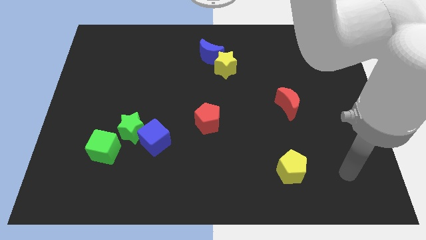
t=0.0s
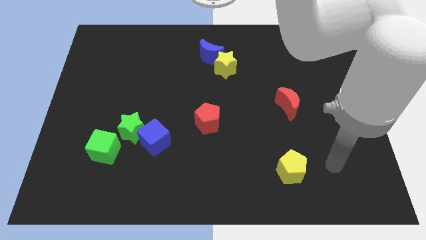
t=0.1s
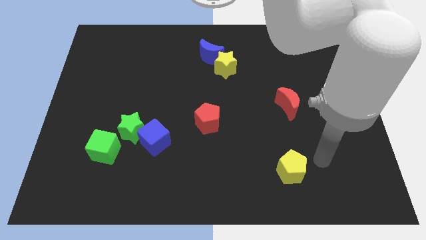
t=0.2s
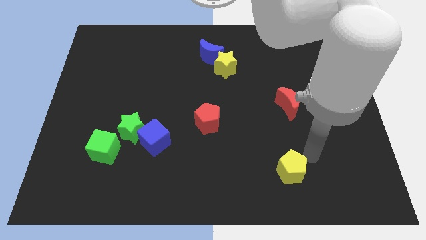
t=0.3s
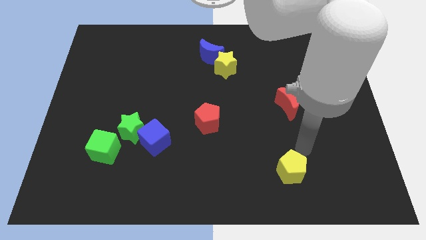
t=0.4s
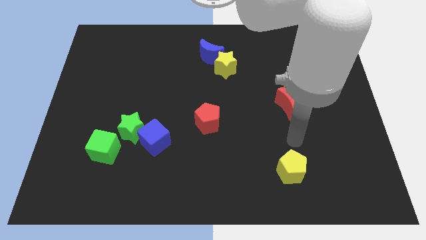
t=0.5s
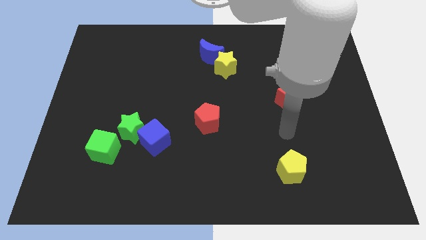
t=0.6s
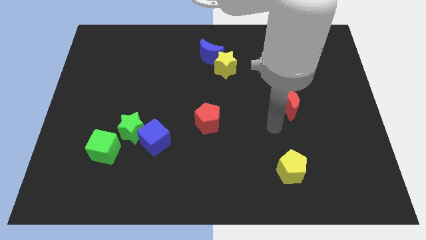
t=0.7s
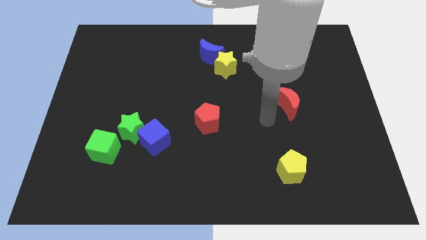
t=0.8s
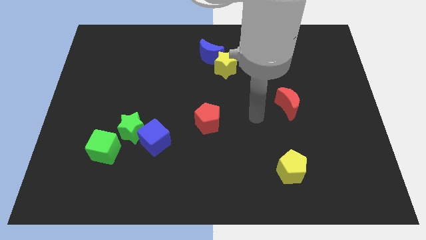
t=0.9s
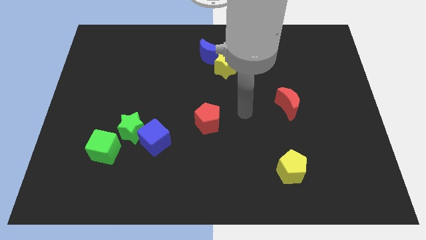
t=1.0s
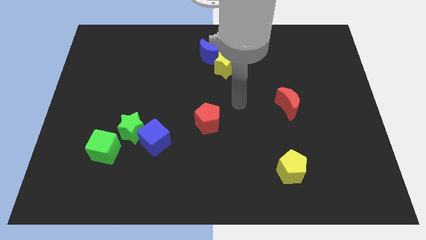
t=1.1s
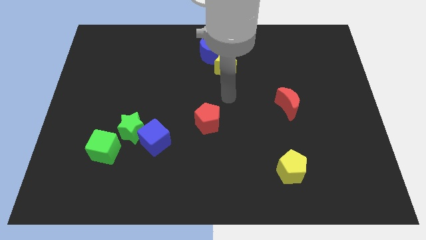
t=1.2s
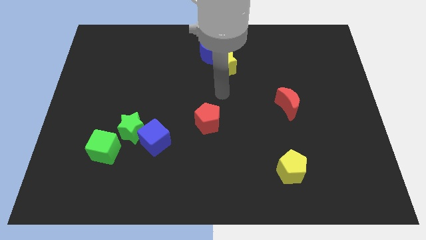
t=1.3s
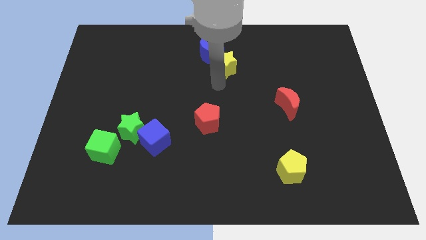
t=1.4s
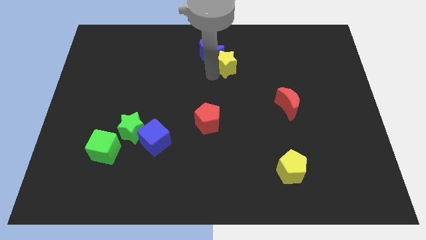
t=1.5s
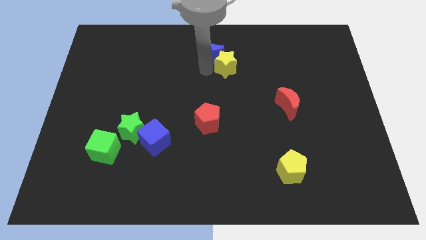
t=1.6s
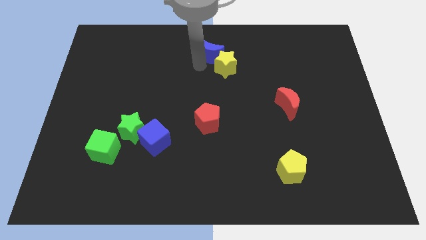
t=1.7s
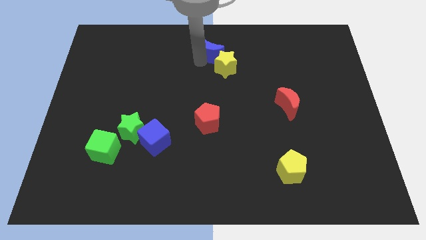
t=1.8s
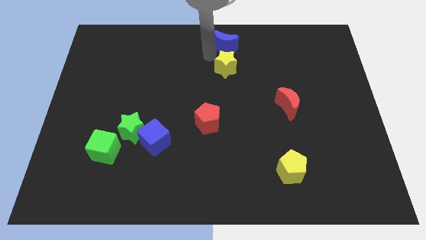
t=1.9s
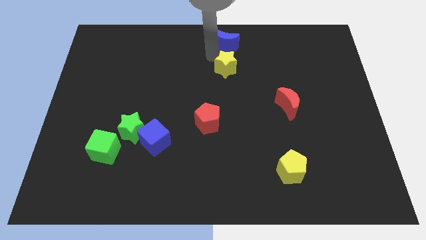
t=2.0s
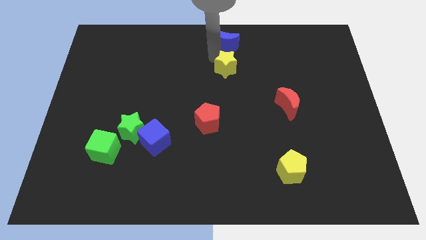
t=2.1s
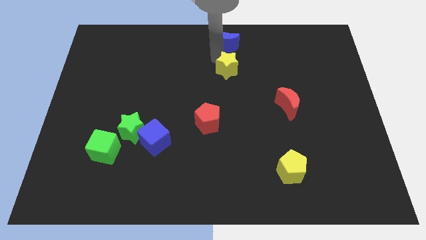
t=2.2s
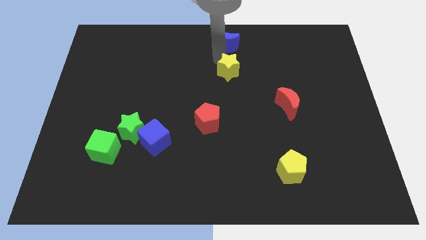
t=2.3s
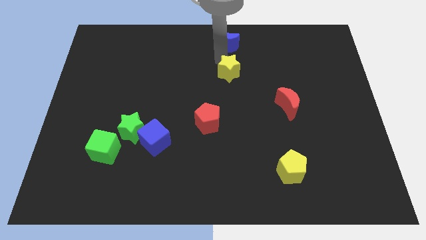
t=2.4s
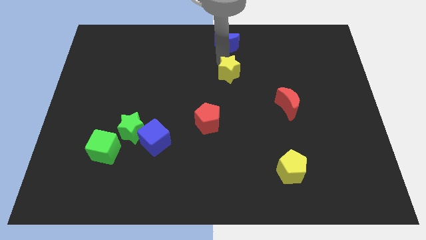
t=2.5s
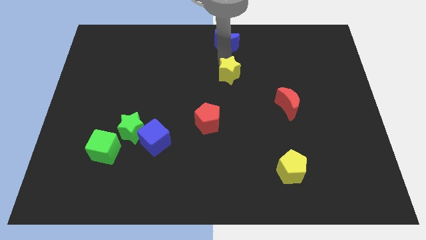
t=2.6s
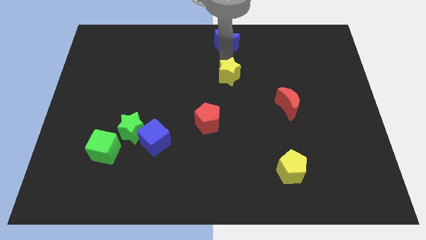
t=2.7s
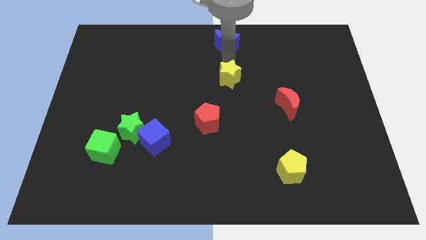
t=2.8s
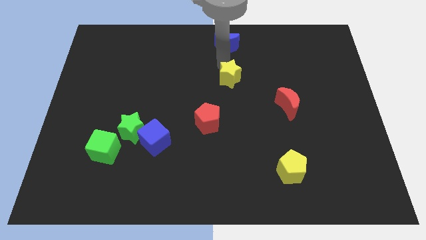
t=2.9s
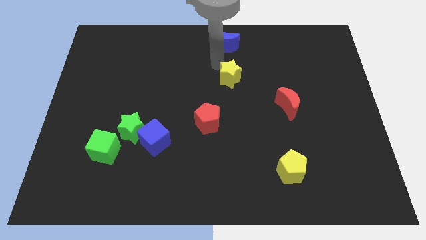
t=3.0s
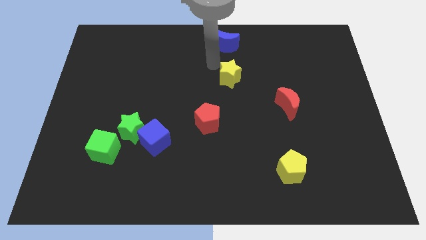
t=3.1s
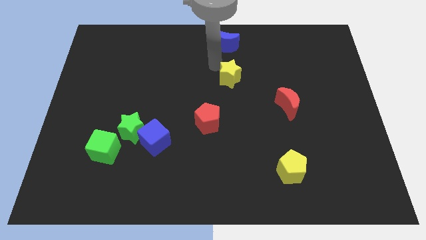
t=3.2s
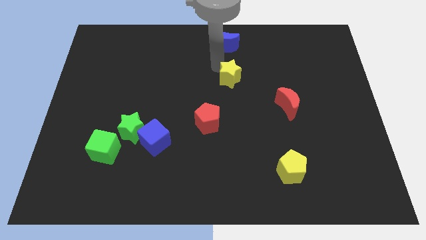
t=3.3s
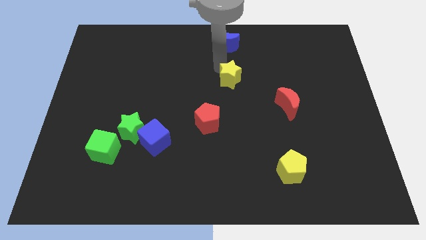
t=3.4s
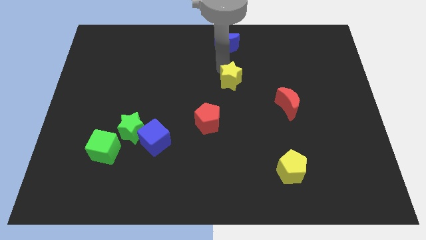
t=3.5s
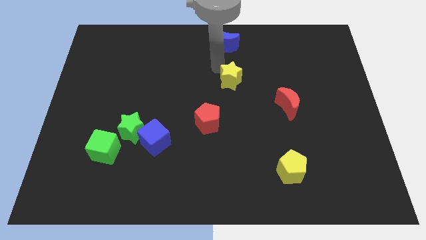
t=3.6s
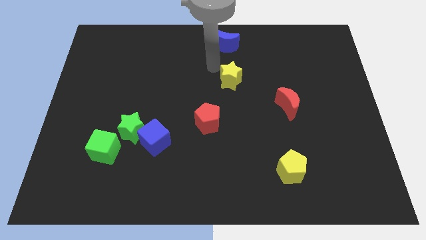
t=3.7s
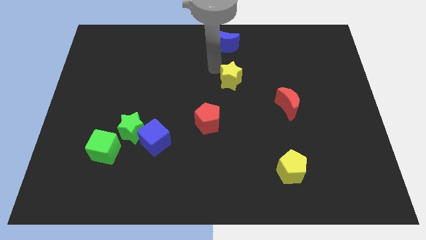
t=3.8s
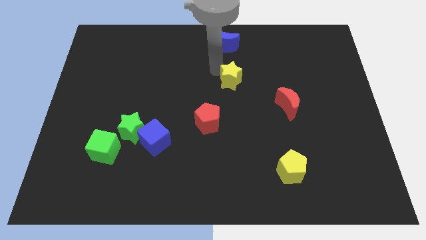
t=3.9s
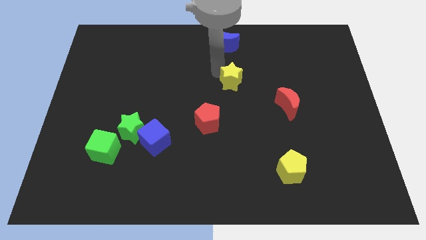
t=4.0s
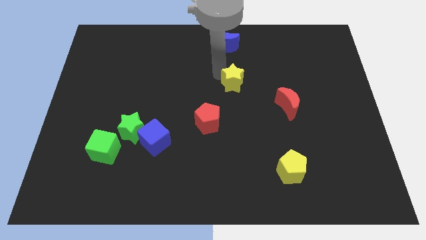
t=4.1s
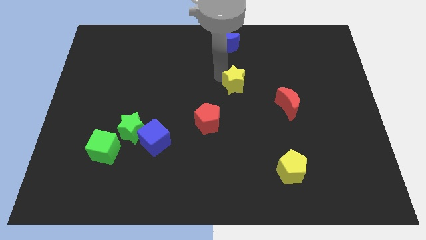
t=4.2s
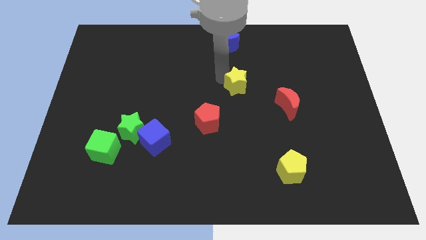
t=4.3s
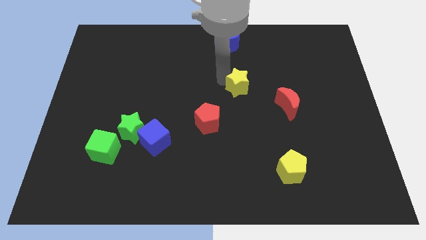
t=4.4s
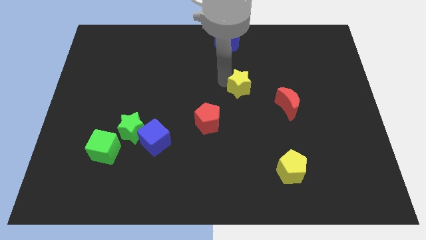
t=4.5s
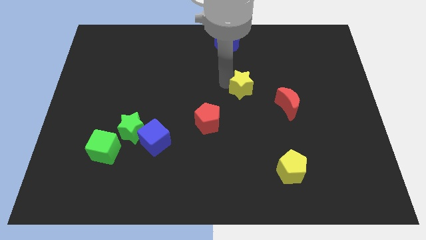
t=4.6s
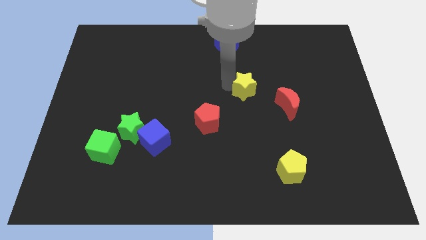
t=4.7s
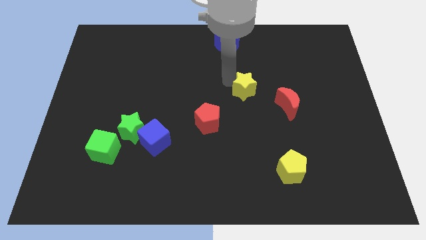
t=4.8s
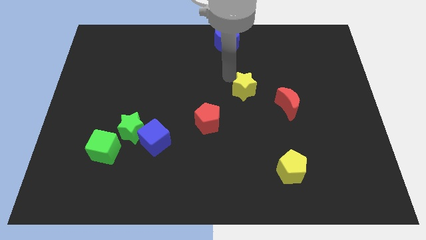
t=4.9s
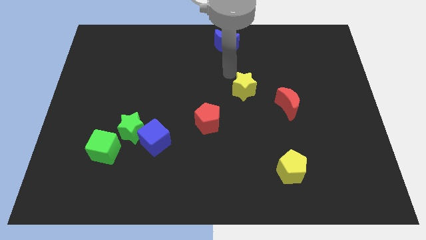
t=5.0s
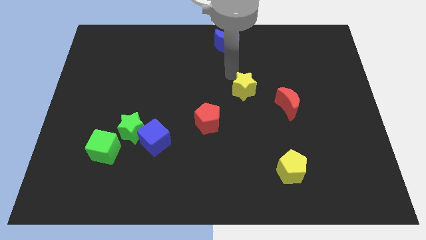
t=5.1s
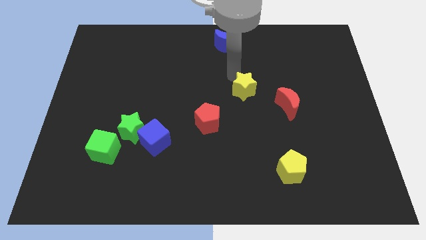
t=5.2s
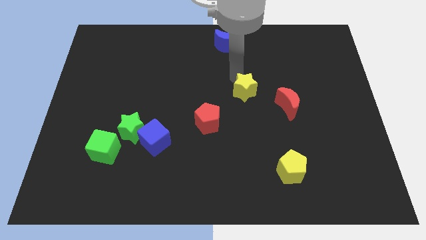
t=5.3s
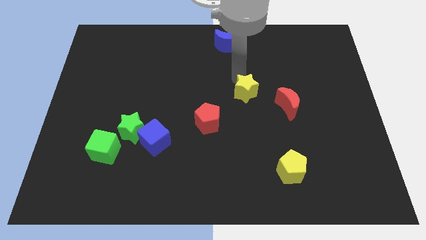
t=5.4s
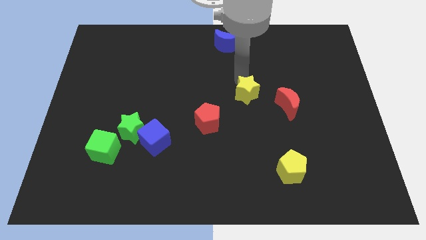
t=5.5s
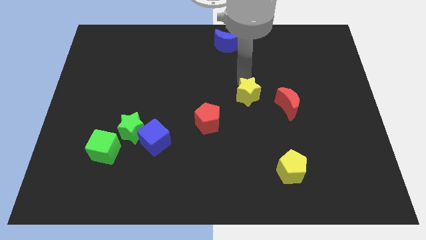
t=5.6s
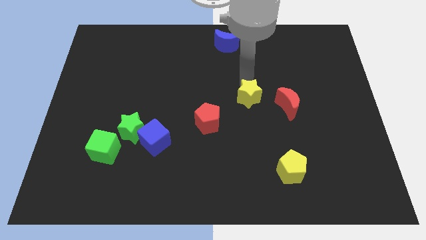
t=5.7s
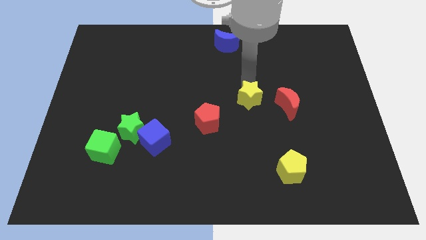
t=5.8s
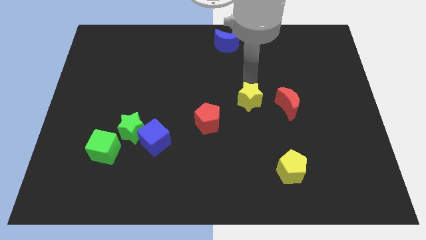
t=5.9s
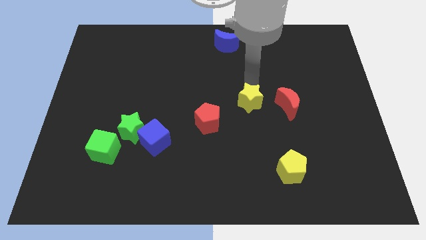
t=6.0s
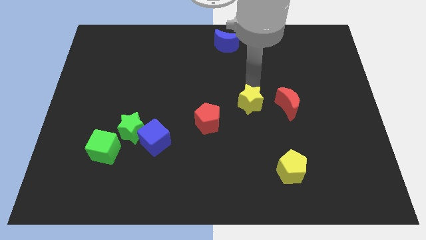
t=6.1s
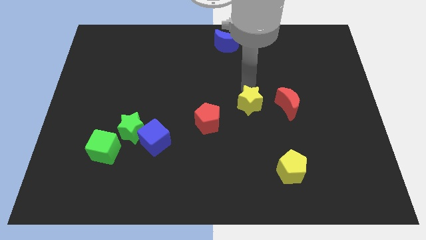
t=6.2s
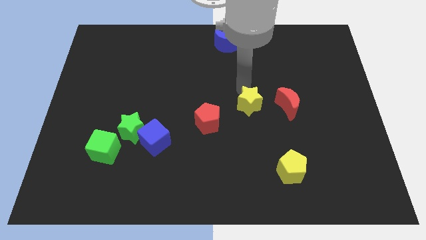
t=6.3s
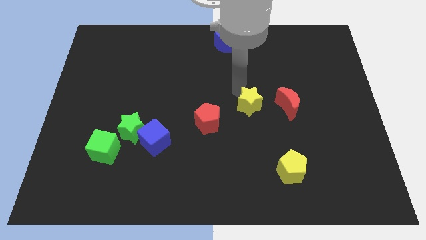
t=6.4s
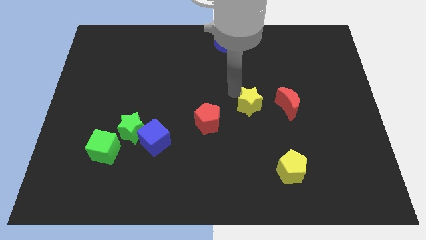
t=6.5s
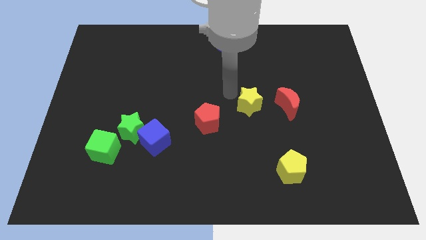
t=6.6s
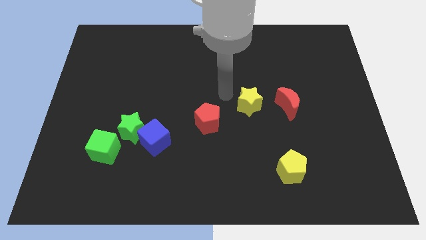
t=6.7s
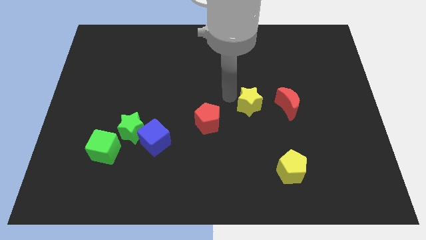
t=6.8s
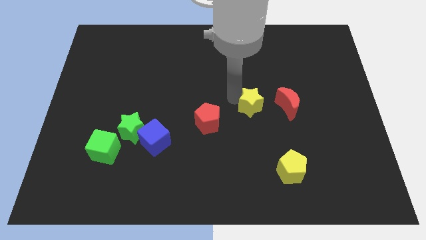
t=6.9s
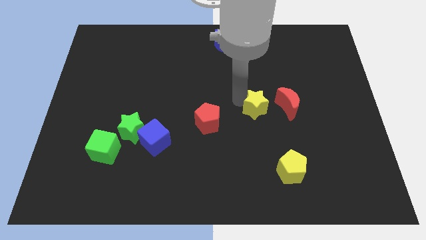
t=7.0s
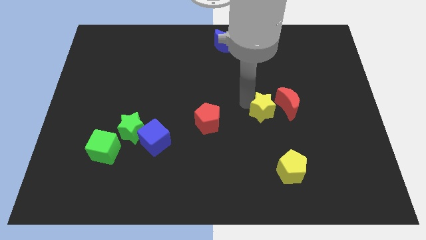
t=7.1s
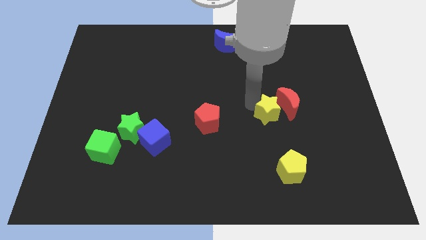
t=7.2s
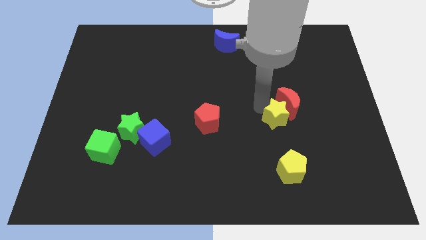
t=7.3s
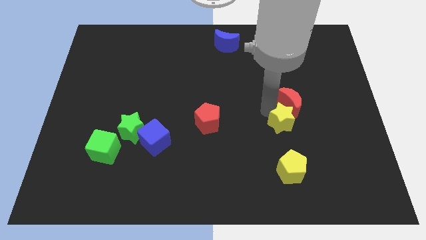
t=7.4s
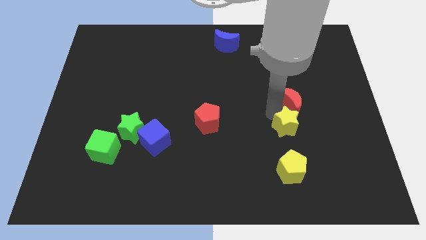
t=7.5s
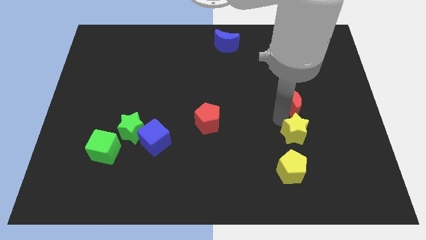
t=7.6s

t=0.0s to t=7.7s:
put the yellow star to the top right side of the yellow pentagon
